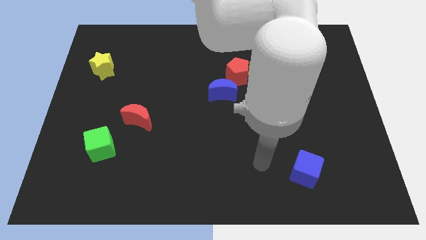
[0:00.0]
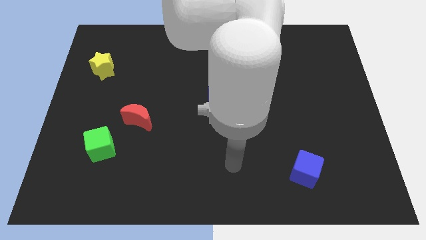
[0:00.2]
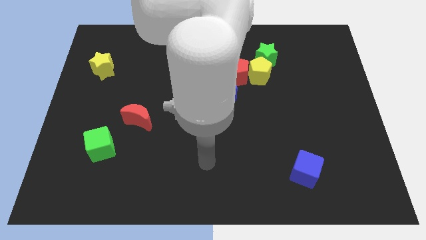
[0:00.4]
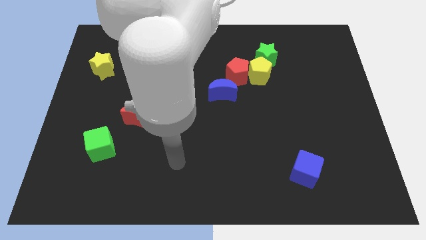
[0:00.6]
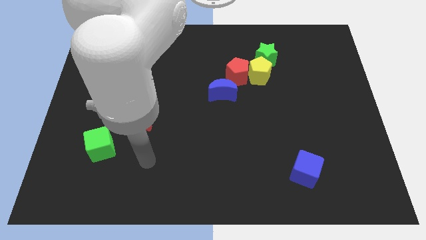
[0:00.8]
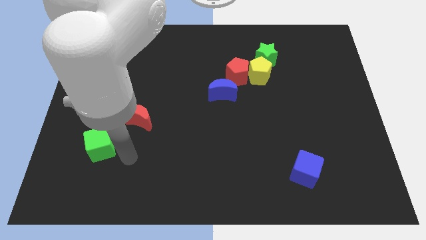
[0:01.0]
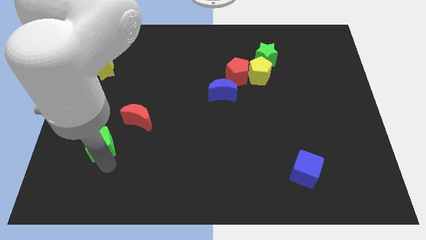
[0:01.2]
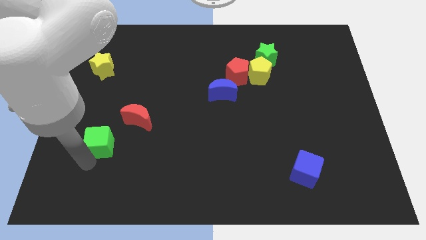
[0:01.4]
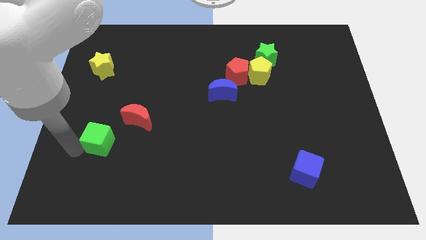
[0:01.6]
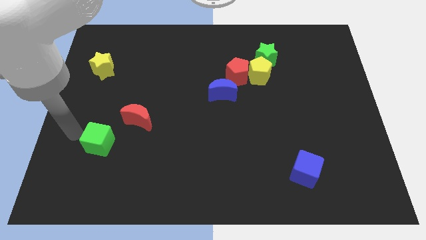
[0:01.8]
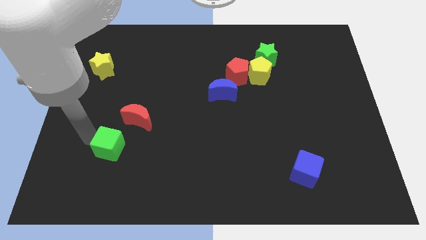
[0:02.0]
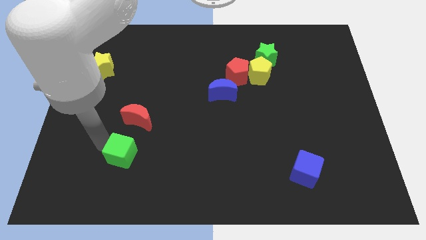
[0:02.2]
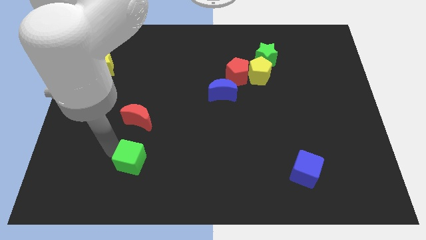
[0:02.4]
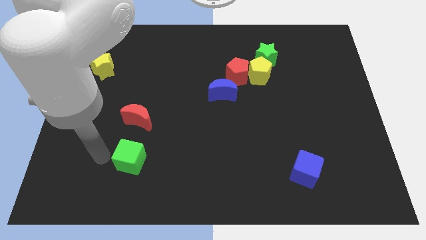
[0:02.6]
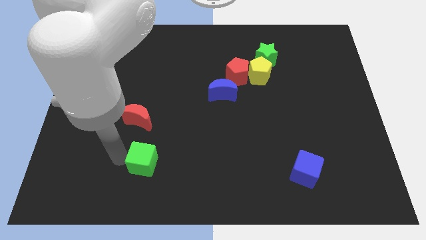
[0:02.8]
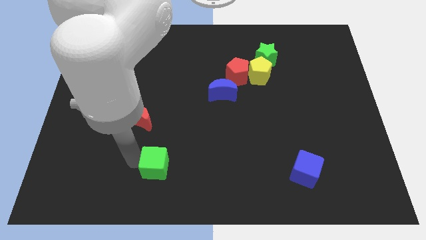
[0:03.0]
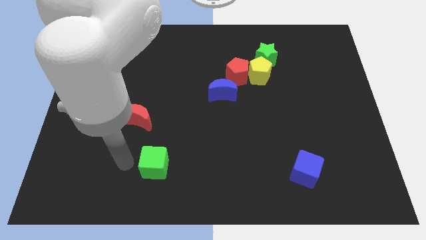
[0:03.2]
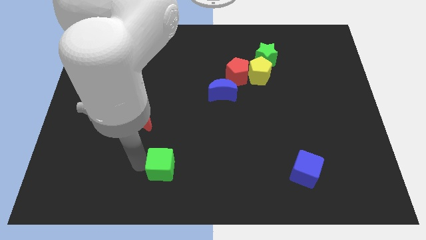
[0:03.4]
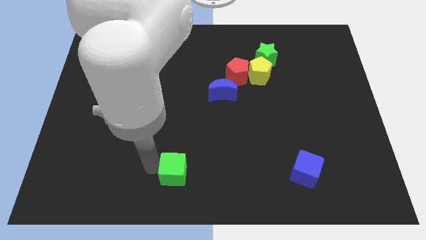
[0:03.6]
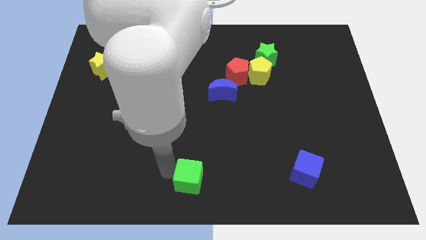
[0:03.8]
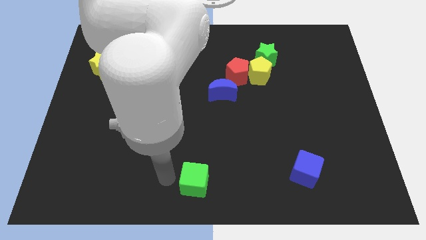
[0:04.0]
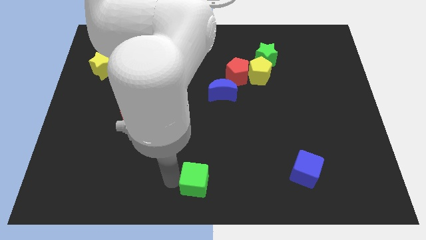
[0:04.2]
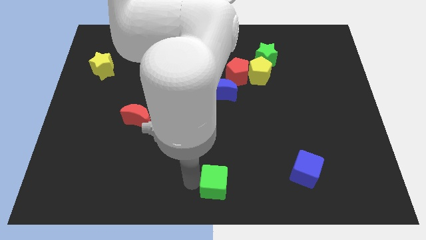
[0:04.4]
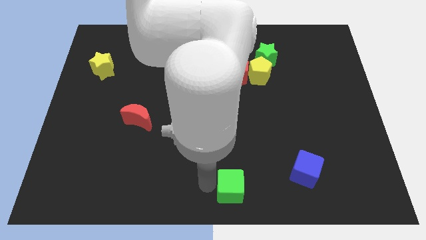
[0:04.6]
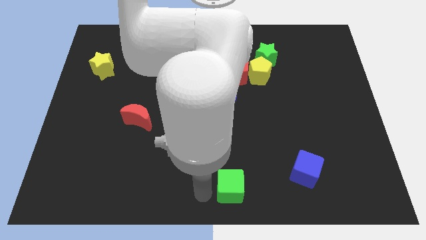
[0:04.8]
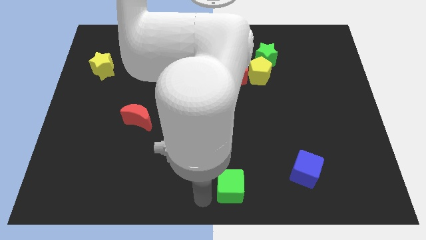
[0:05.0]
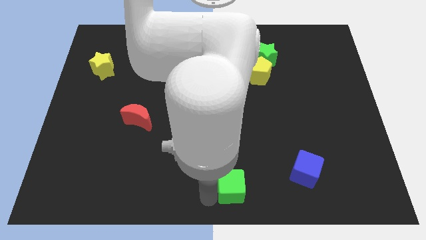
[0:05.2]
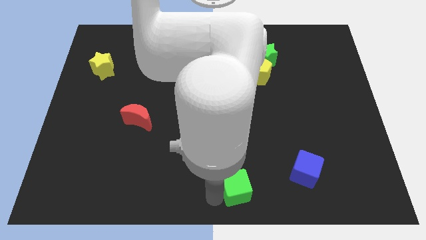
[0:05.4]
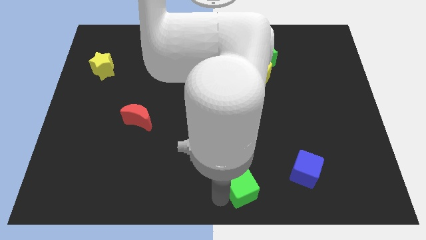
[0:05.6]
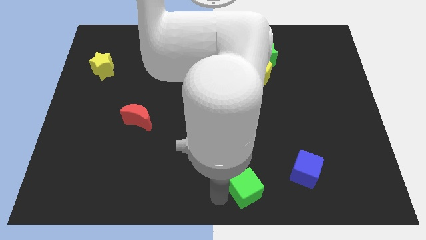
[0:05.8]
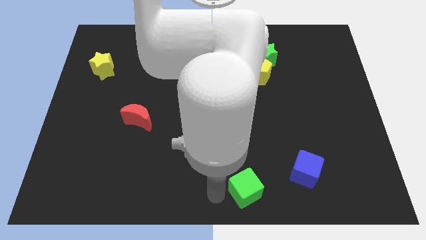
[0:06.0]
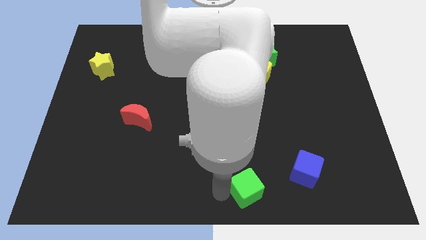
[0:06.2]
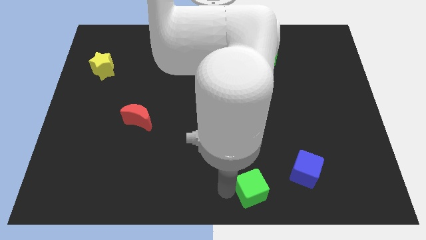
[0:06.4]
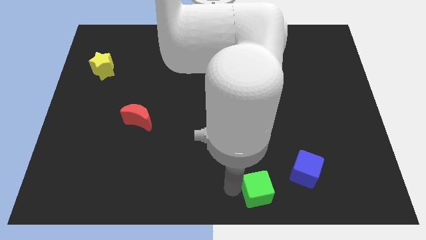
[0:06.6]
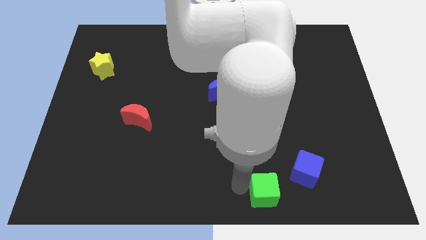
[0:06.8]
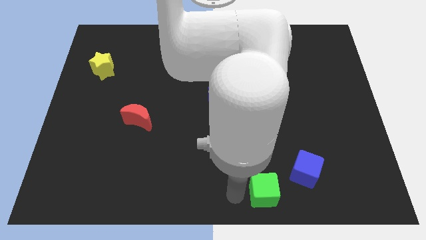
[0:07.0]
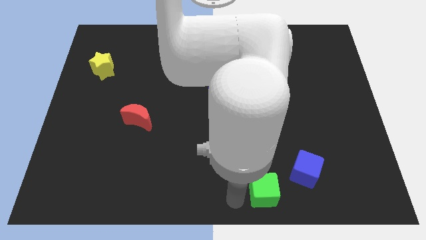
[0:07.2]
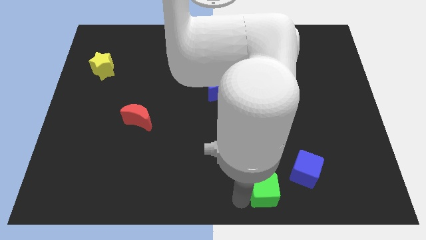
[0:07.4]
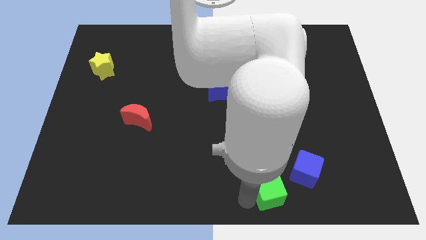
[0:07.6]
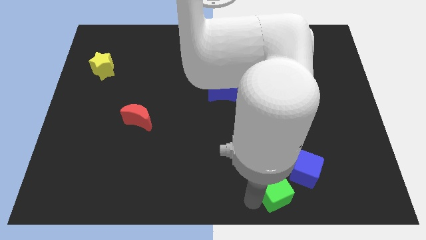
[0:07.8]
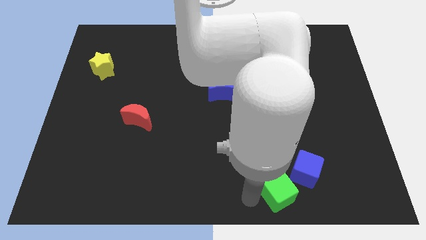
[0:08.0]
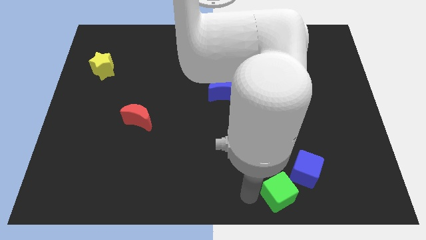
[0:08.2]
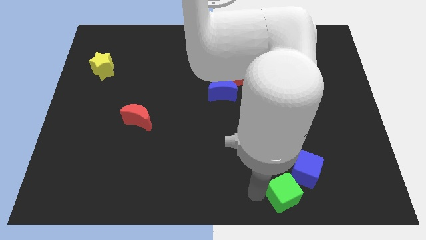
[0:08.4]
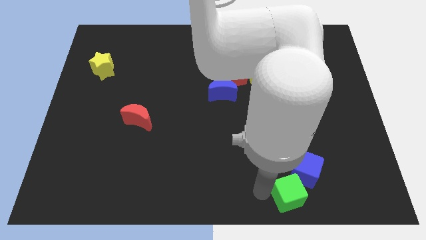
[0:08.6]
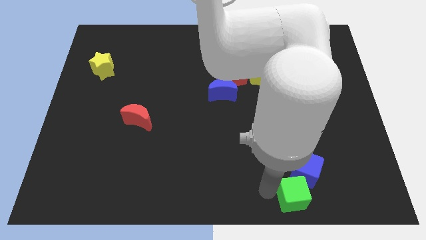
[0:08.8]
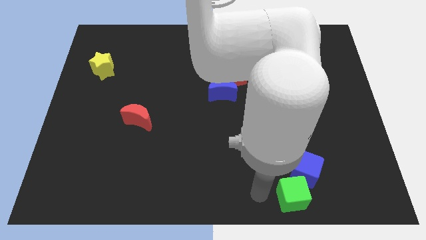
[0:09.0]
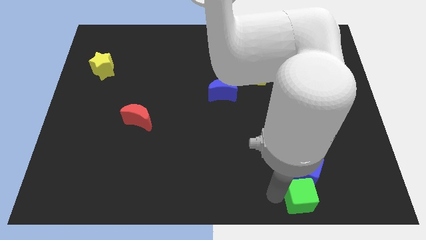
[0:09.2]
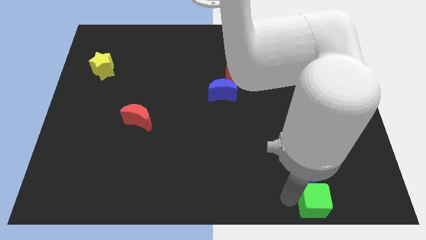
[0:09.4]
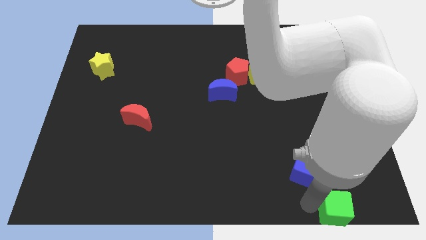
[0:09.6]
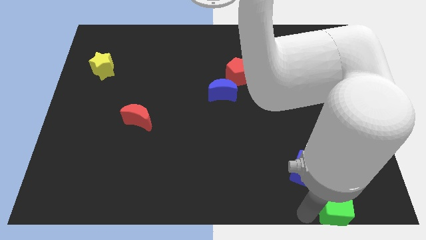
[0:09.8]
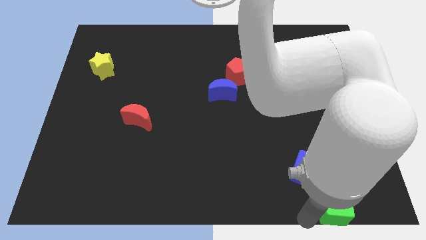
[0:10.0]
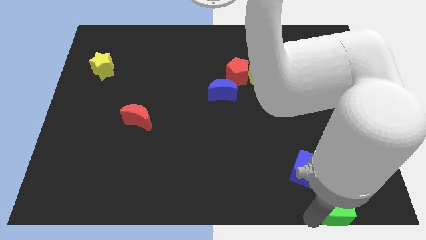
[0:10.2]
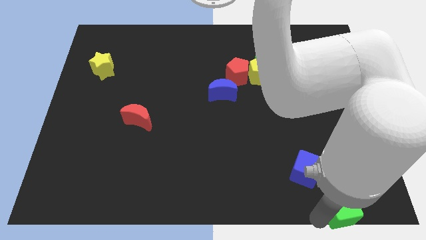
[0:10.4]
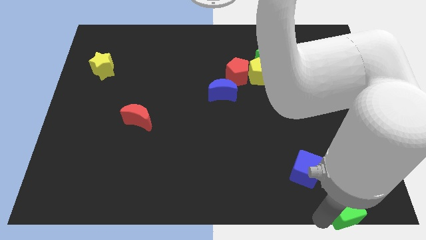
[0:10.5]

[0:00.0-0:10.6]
push the green cube to the bottom right corner

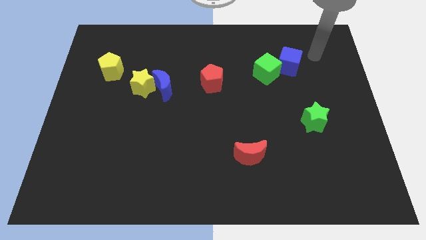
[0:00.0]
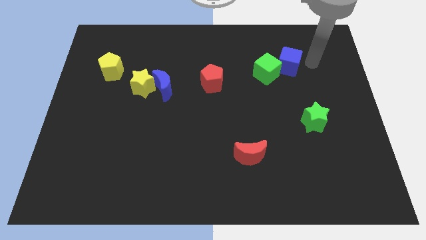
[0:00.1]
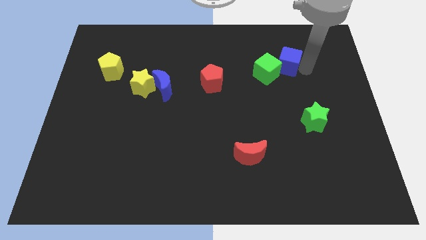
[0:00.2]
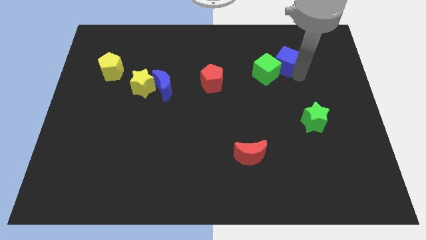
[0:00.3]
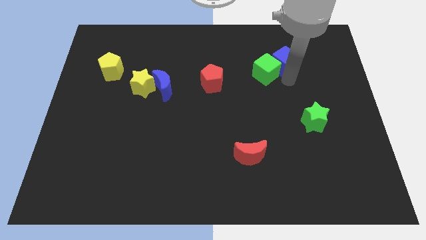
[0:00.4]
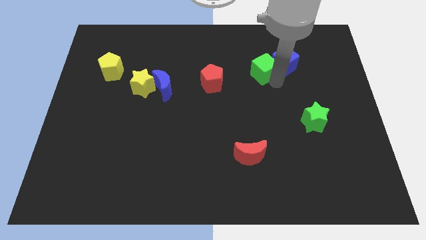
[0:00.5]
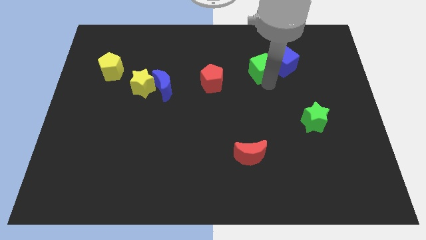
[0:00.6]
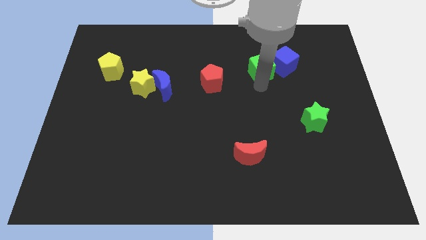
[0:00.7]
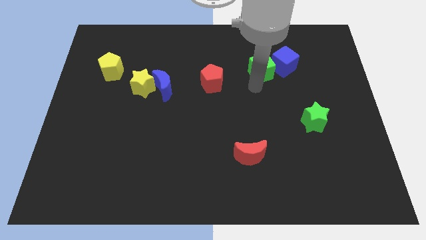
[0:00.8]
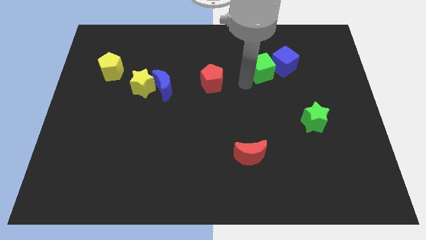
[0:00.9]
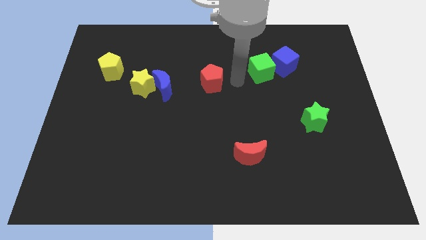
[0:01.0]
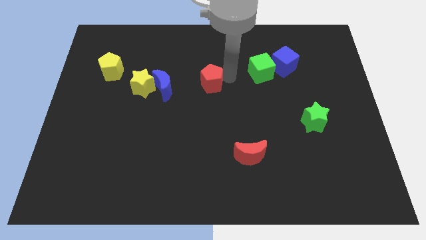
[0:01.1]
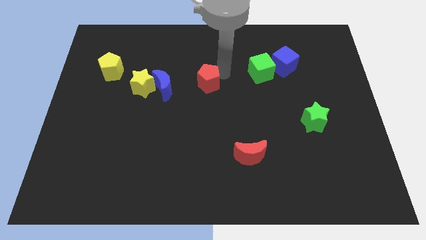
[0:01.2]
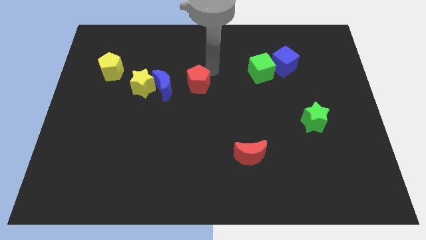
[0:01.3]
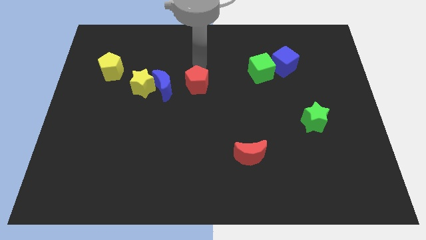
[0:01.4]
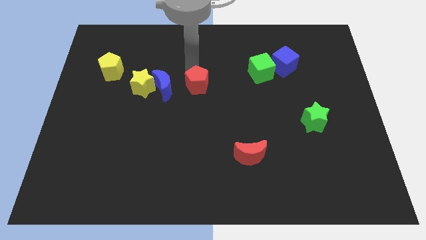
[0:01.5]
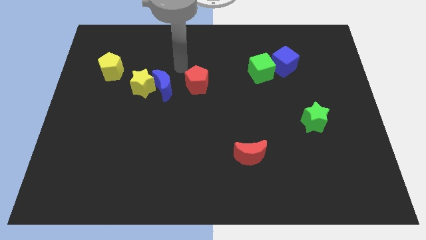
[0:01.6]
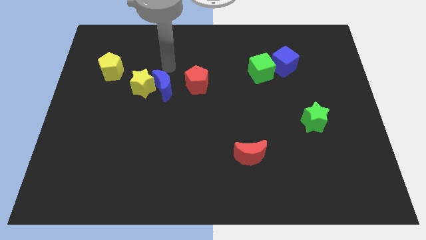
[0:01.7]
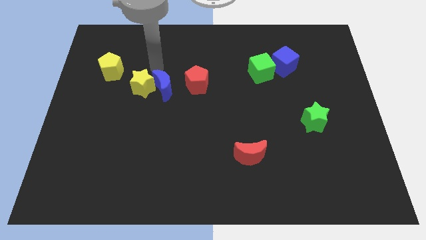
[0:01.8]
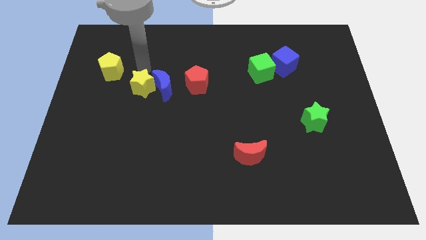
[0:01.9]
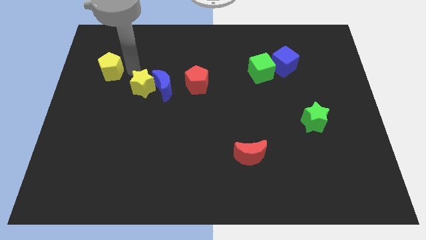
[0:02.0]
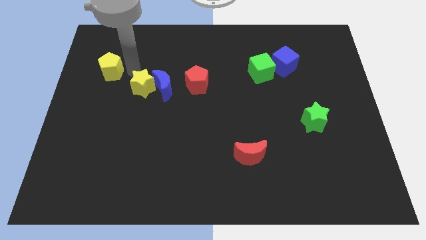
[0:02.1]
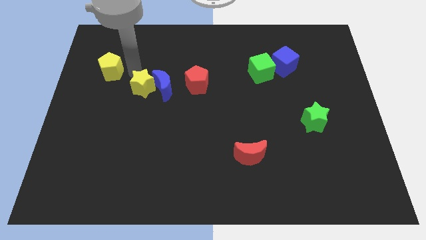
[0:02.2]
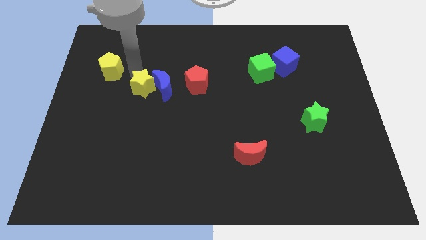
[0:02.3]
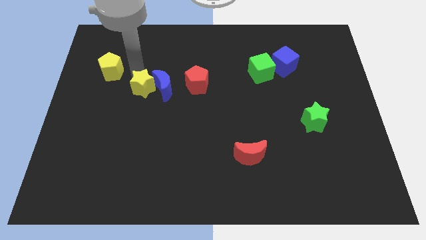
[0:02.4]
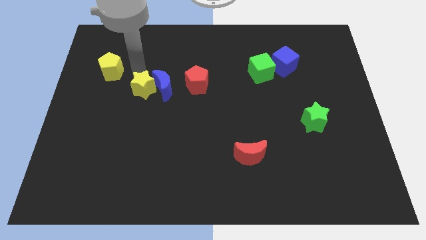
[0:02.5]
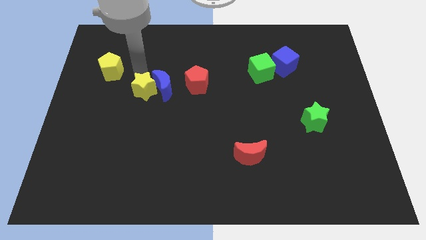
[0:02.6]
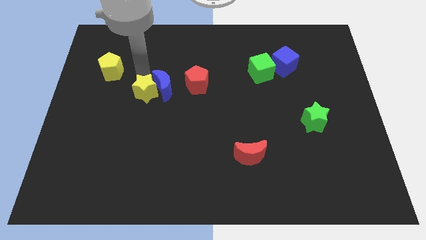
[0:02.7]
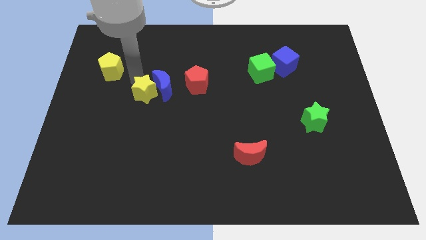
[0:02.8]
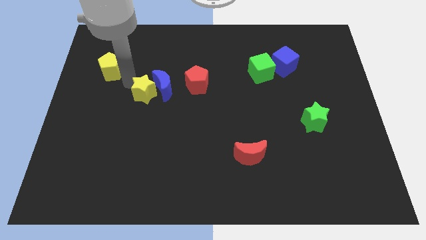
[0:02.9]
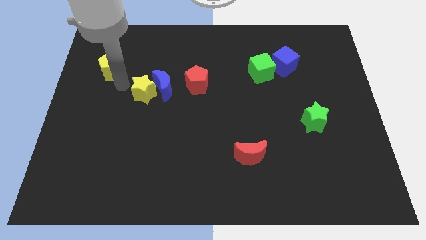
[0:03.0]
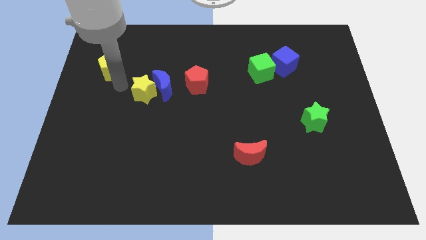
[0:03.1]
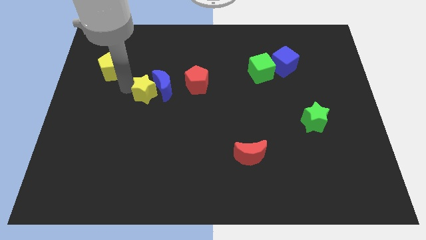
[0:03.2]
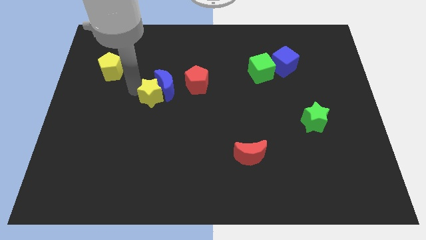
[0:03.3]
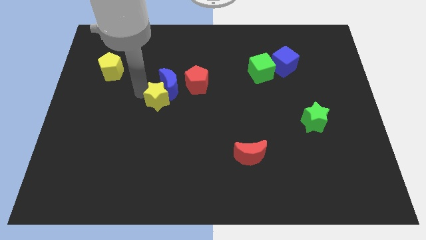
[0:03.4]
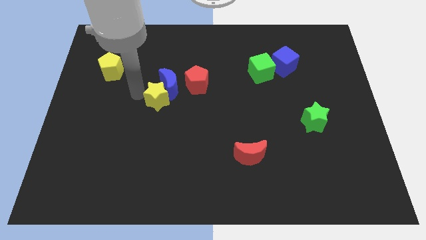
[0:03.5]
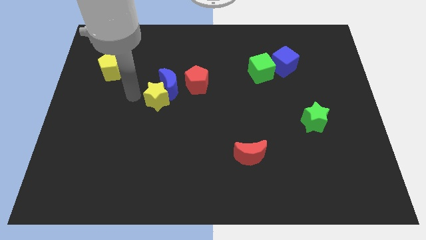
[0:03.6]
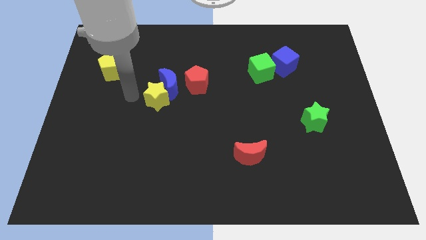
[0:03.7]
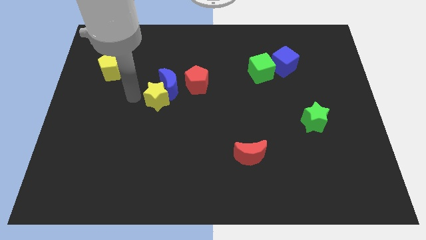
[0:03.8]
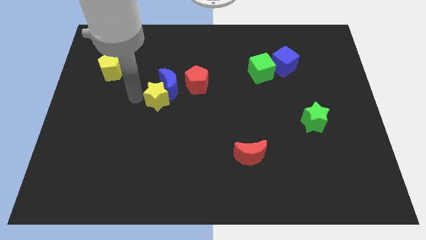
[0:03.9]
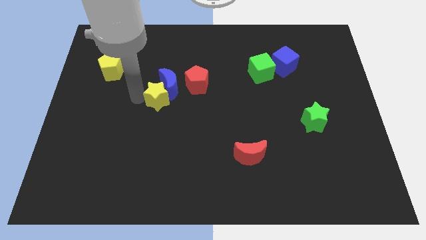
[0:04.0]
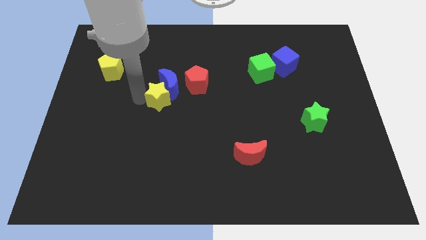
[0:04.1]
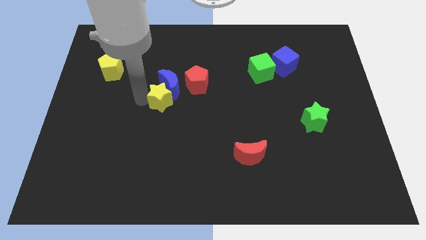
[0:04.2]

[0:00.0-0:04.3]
push the yellow star to the middle
